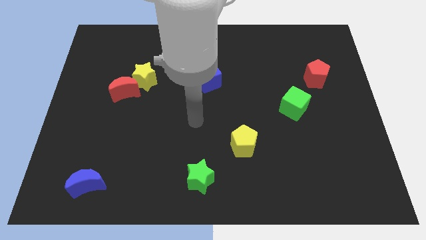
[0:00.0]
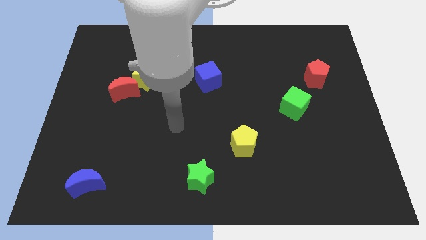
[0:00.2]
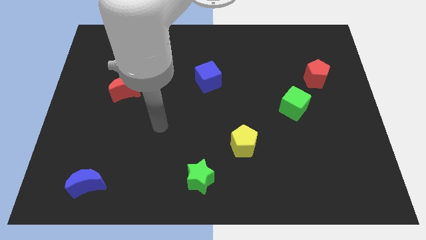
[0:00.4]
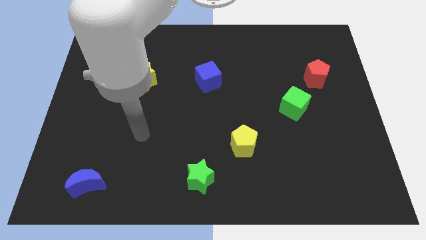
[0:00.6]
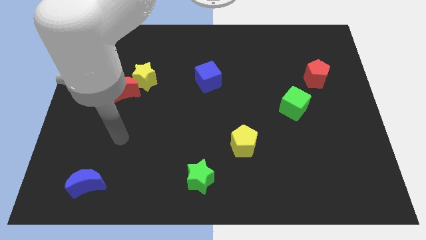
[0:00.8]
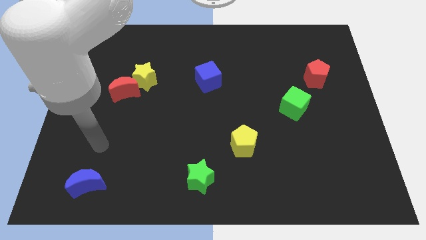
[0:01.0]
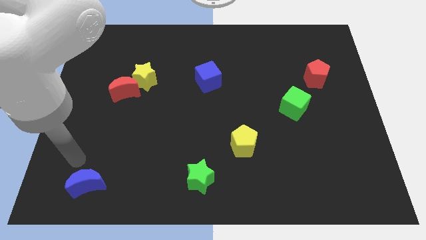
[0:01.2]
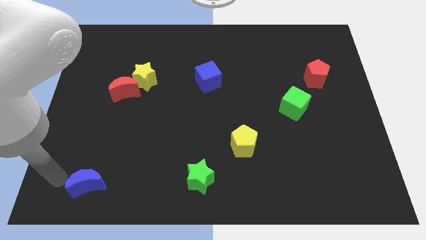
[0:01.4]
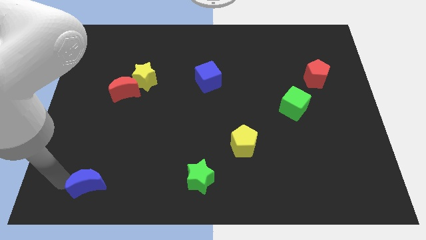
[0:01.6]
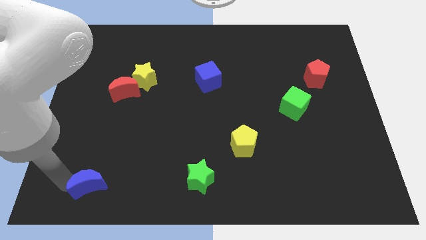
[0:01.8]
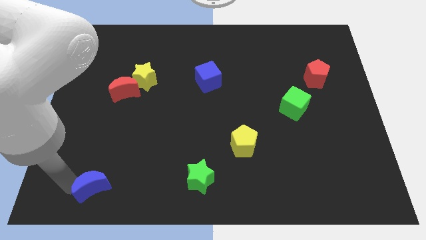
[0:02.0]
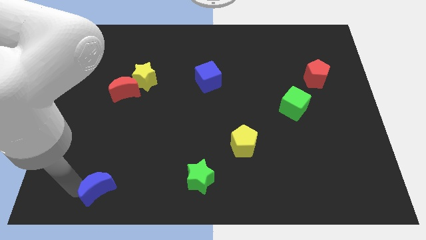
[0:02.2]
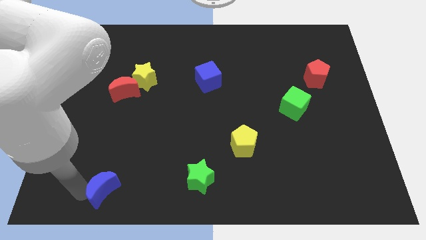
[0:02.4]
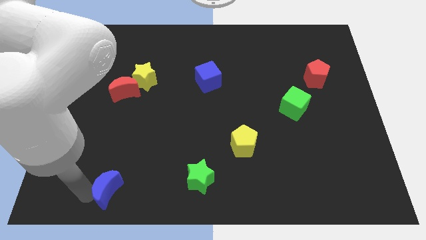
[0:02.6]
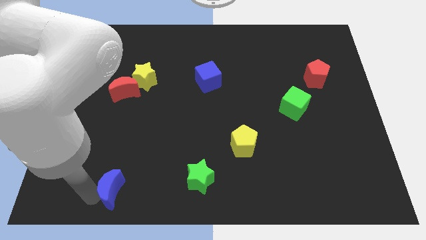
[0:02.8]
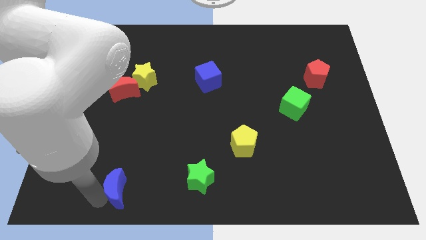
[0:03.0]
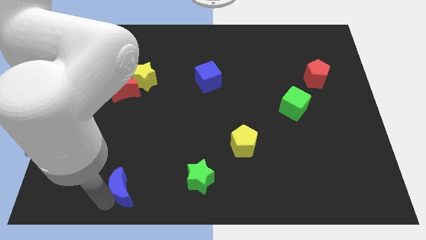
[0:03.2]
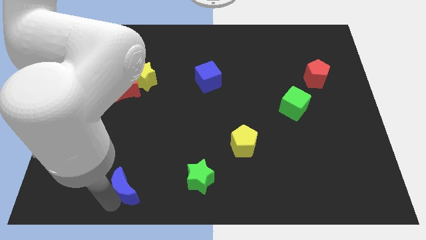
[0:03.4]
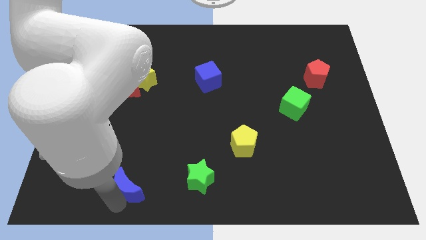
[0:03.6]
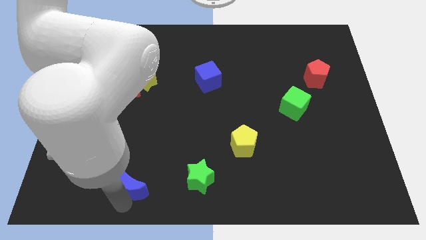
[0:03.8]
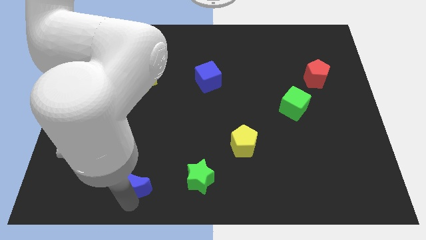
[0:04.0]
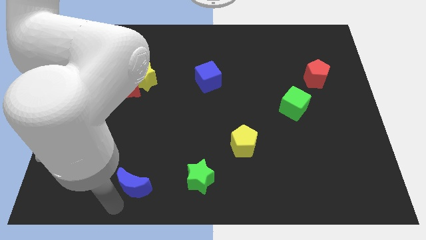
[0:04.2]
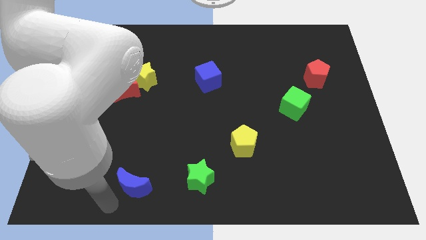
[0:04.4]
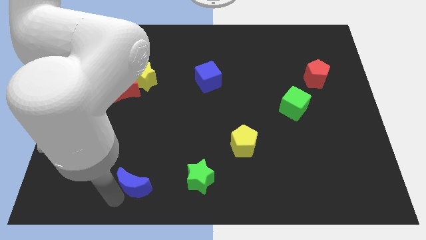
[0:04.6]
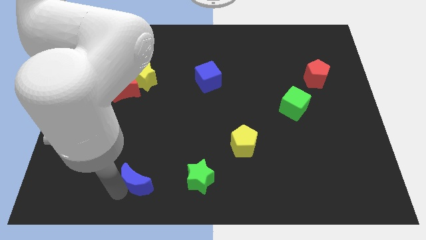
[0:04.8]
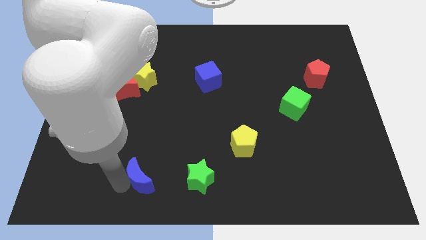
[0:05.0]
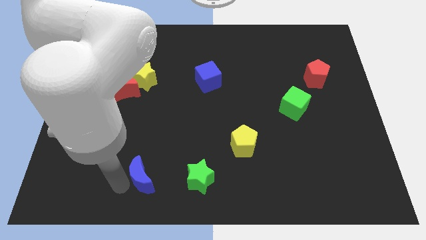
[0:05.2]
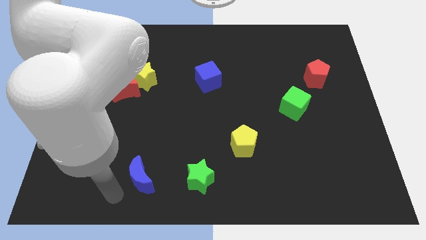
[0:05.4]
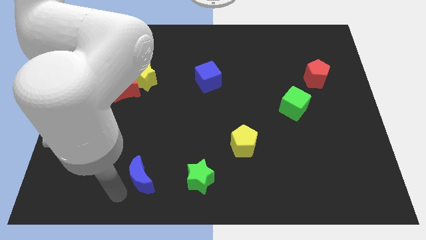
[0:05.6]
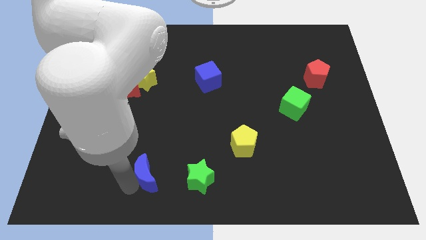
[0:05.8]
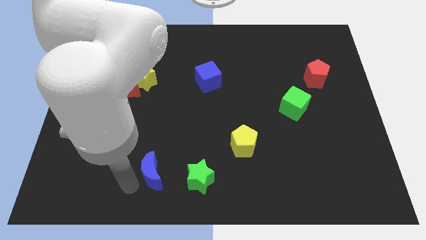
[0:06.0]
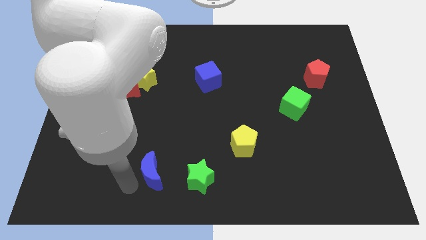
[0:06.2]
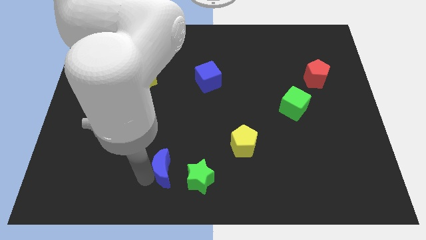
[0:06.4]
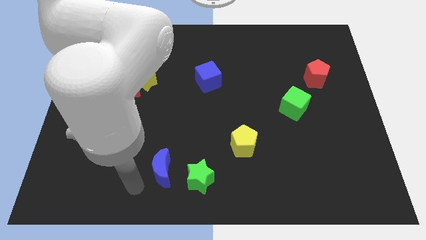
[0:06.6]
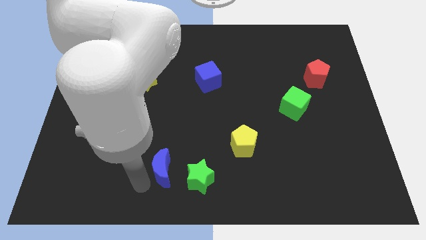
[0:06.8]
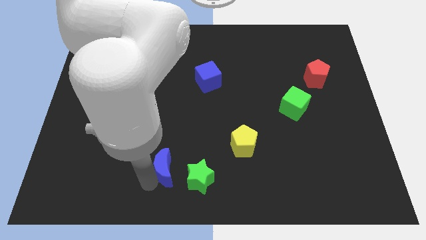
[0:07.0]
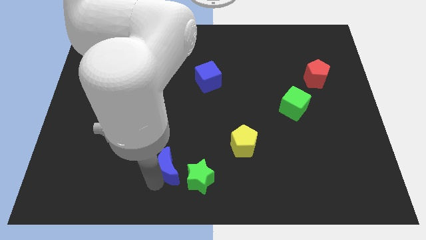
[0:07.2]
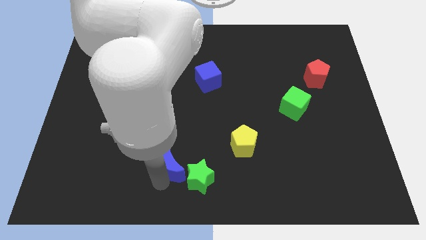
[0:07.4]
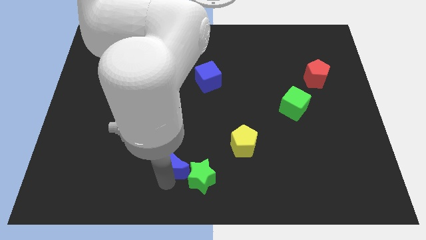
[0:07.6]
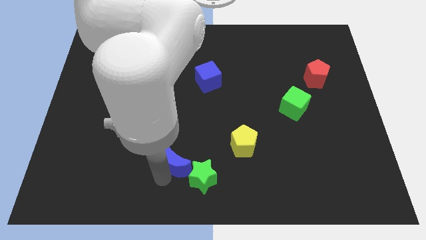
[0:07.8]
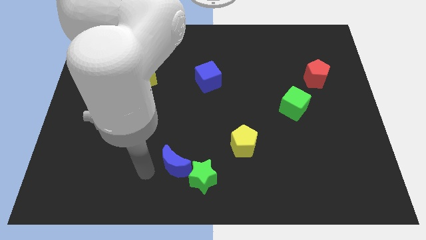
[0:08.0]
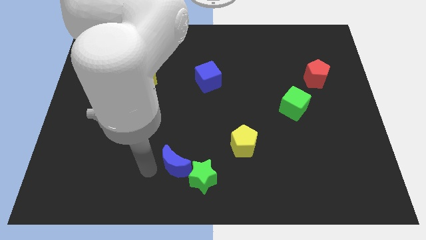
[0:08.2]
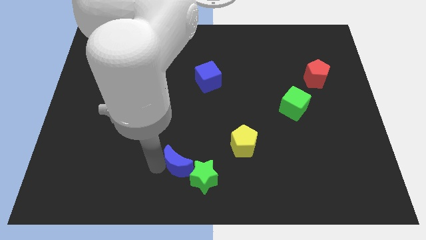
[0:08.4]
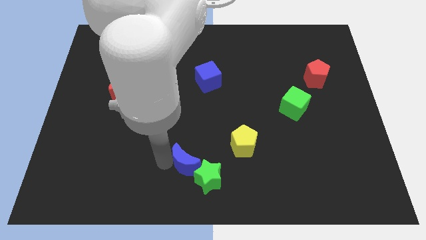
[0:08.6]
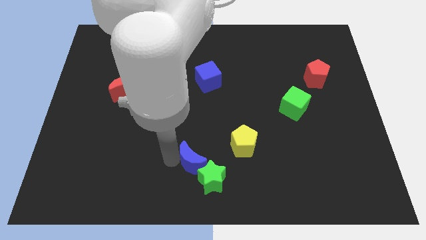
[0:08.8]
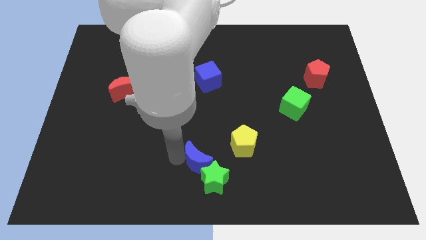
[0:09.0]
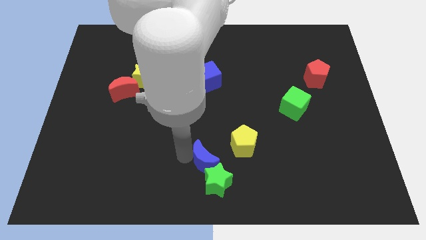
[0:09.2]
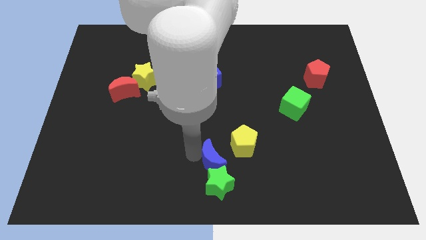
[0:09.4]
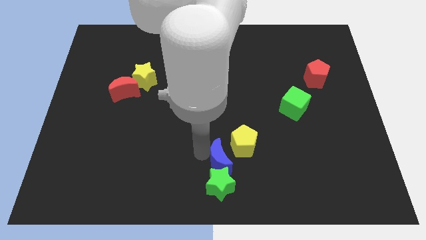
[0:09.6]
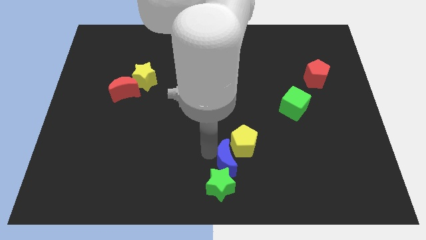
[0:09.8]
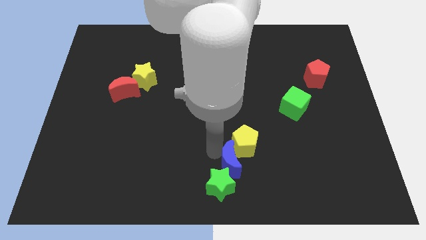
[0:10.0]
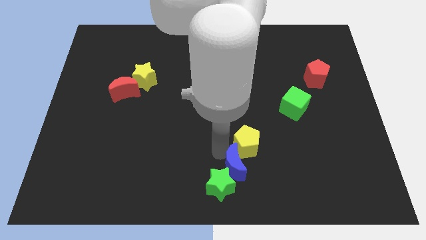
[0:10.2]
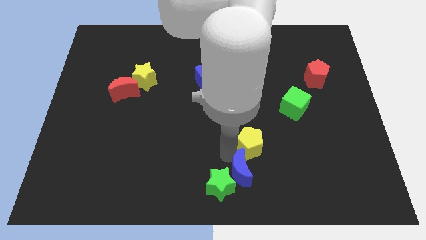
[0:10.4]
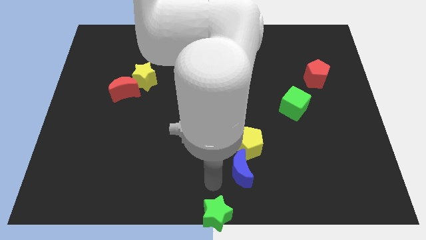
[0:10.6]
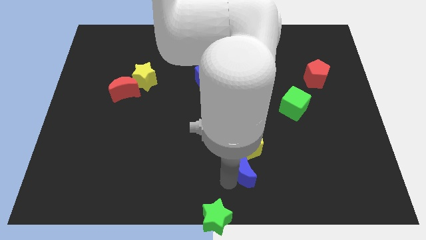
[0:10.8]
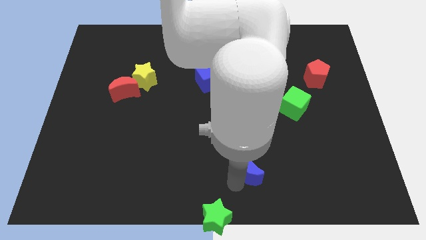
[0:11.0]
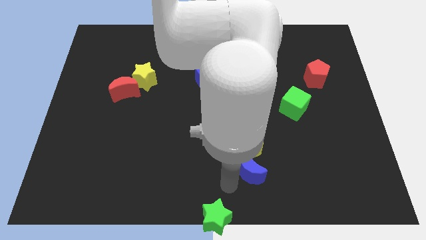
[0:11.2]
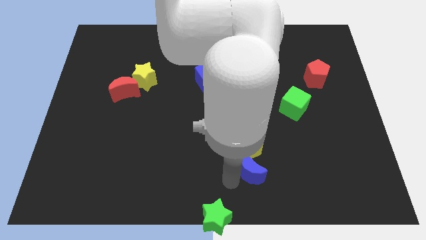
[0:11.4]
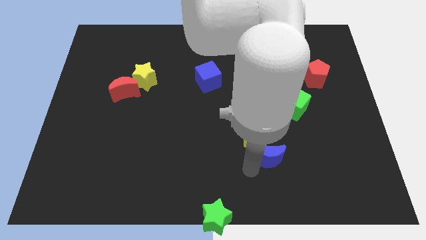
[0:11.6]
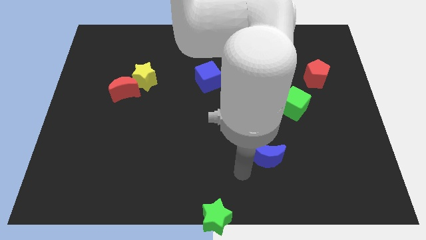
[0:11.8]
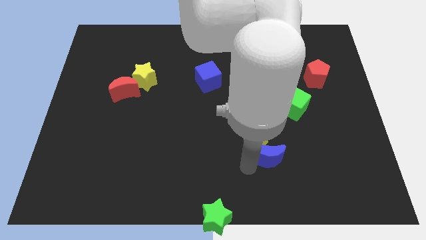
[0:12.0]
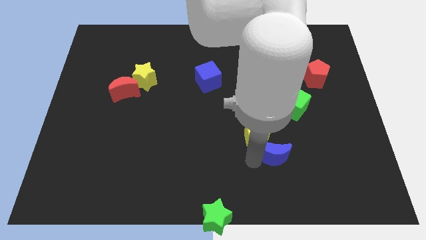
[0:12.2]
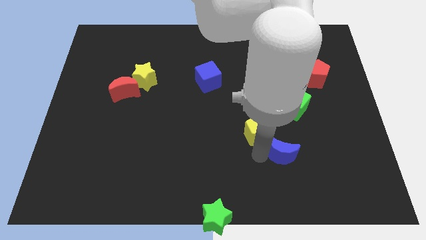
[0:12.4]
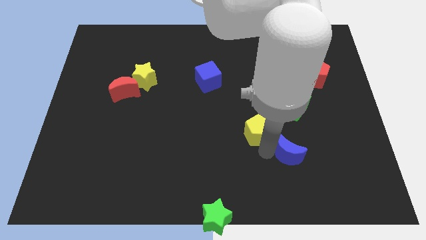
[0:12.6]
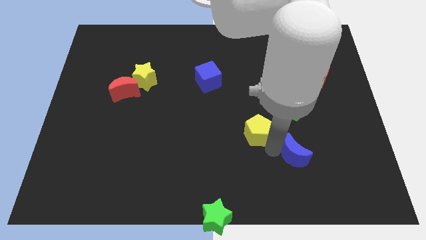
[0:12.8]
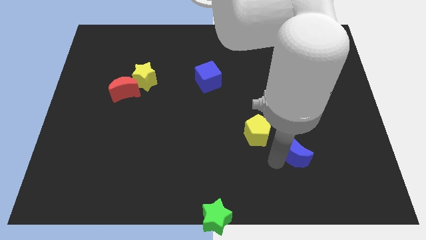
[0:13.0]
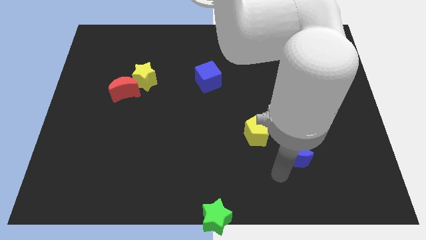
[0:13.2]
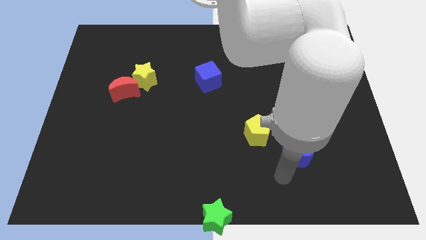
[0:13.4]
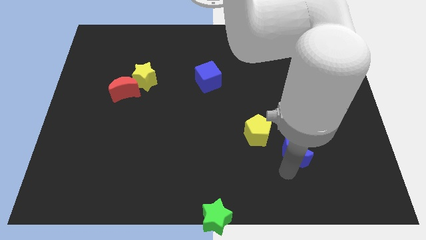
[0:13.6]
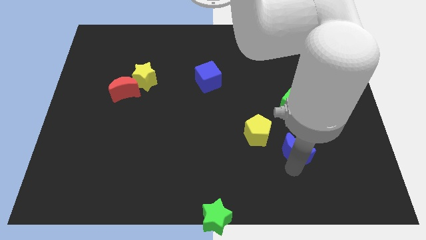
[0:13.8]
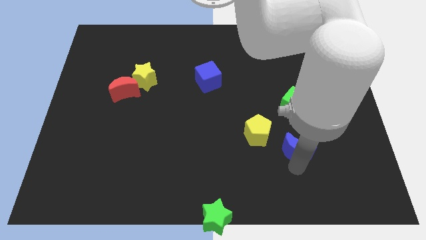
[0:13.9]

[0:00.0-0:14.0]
slide the blue moon to the right side of the yellow pentagon
